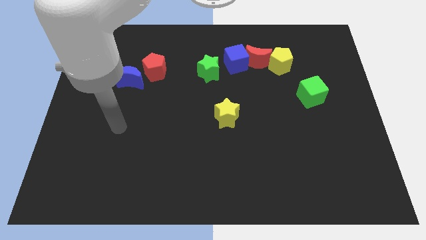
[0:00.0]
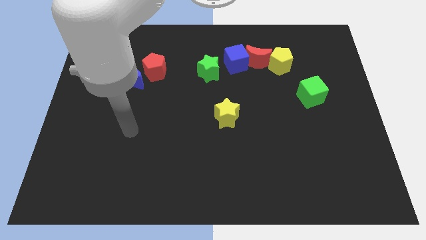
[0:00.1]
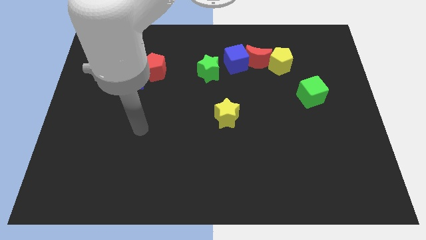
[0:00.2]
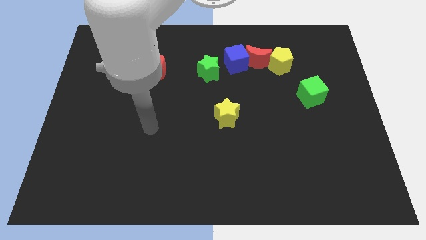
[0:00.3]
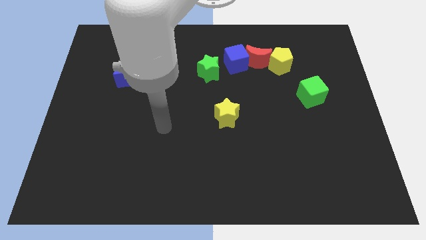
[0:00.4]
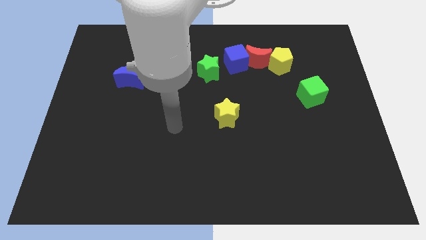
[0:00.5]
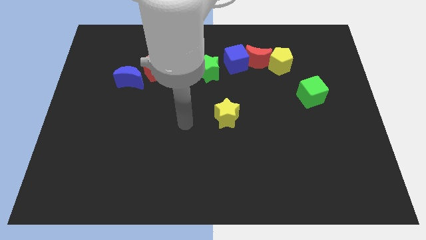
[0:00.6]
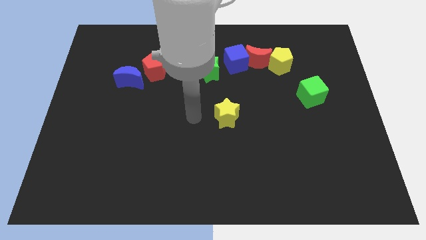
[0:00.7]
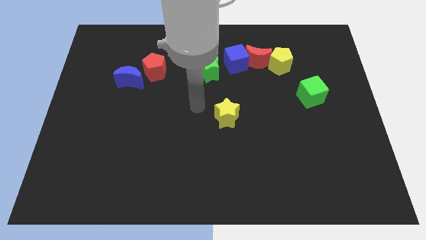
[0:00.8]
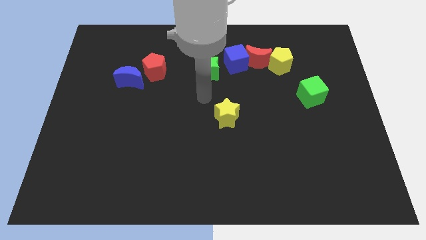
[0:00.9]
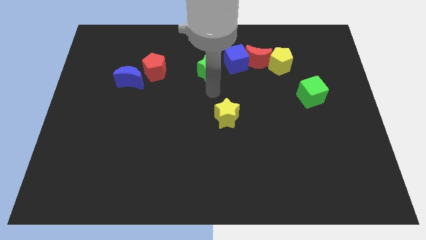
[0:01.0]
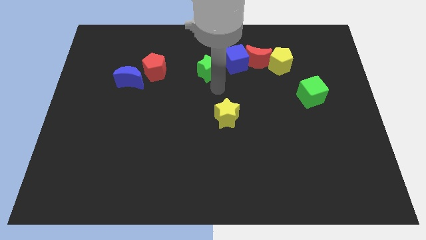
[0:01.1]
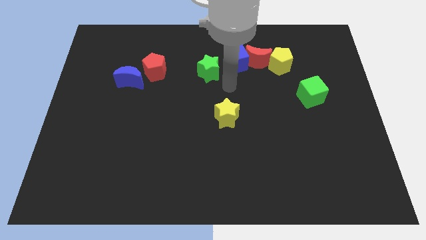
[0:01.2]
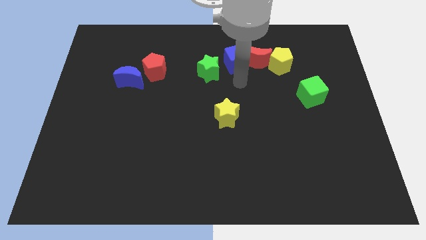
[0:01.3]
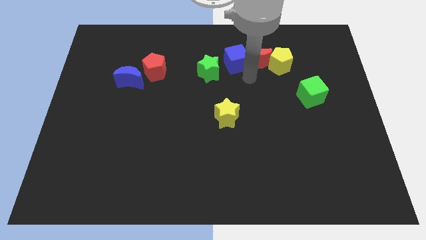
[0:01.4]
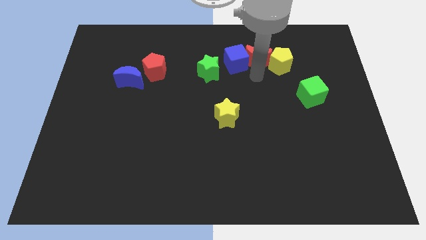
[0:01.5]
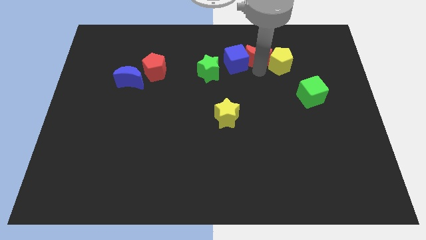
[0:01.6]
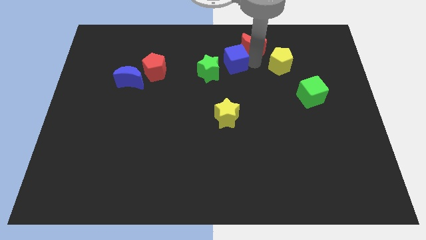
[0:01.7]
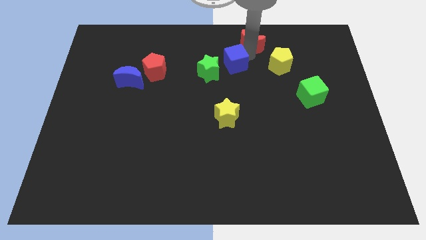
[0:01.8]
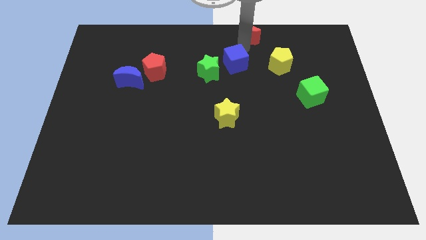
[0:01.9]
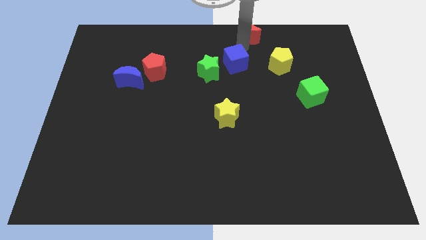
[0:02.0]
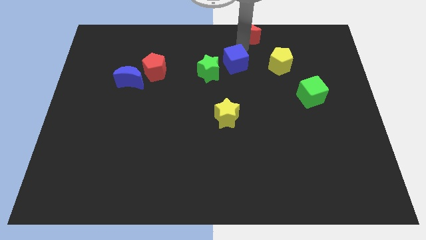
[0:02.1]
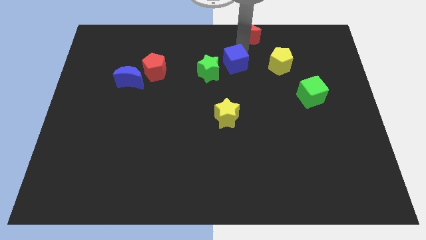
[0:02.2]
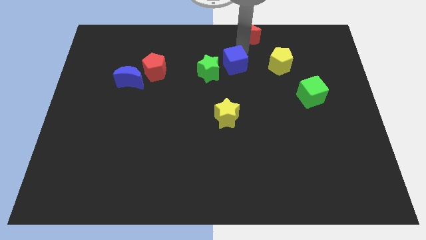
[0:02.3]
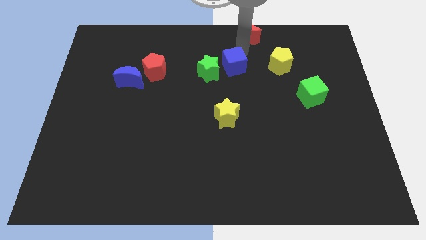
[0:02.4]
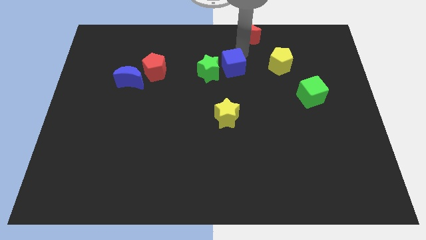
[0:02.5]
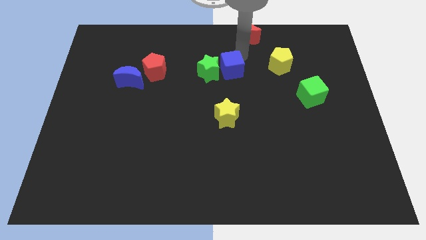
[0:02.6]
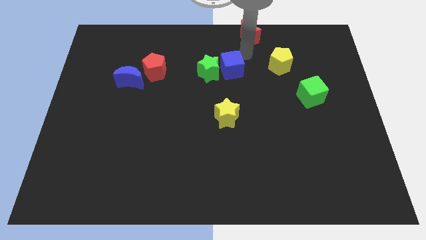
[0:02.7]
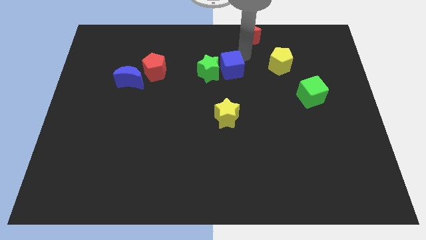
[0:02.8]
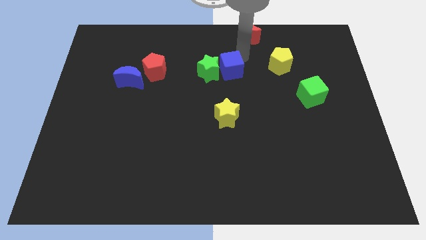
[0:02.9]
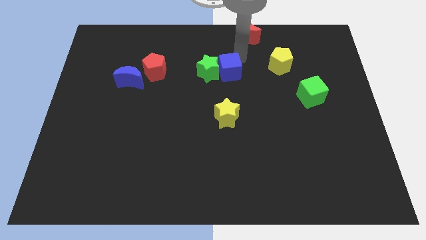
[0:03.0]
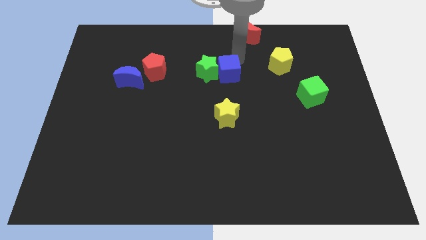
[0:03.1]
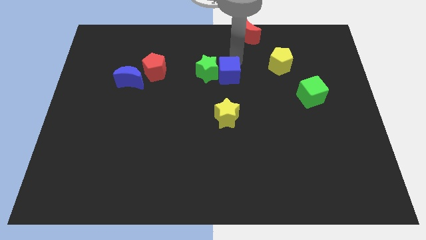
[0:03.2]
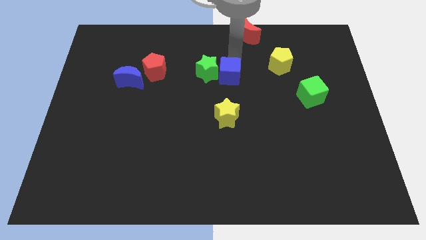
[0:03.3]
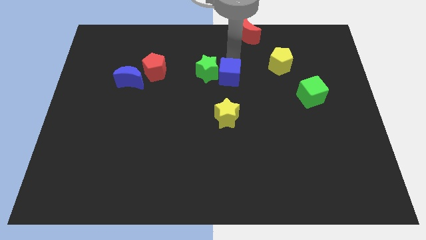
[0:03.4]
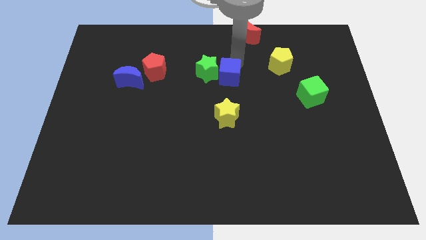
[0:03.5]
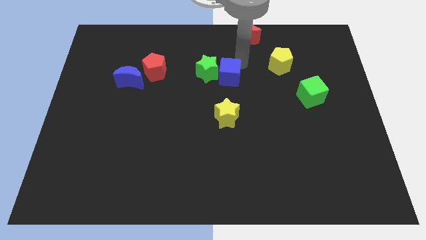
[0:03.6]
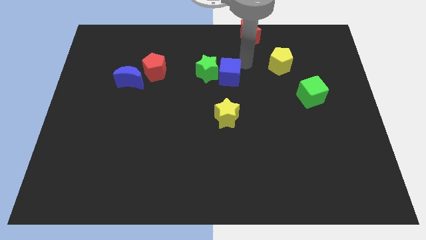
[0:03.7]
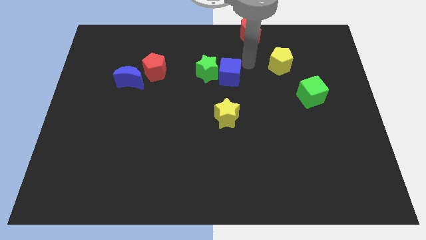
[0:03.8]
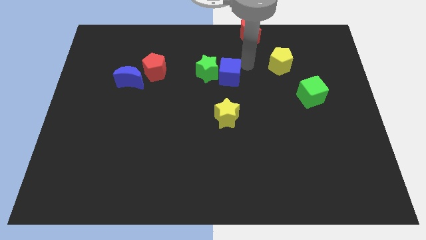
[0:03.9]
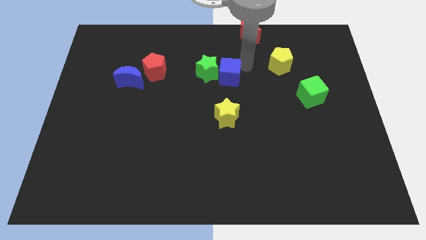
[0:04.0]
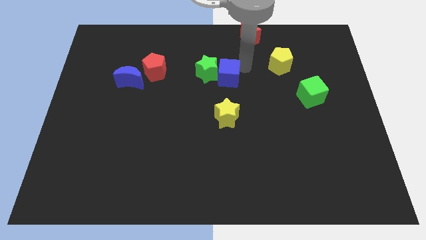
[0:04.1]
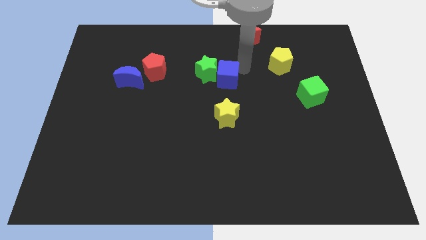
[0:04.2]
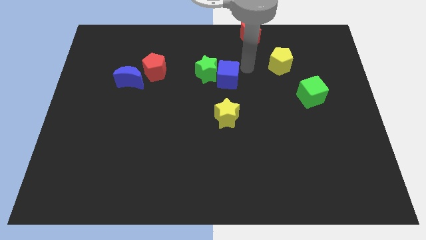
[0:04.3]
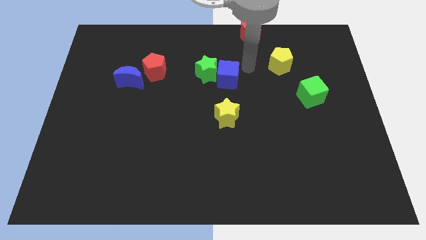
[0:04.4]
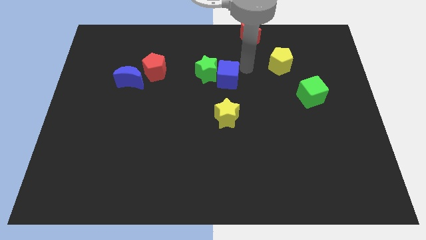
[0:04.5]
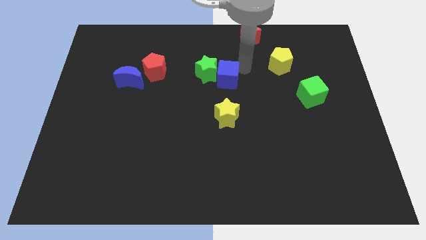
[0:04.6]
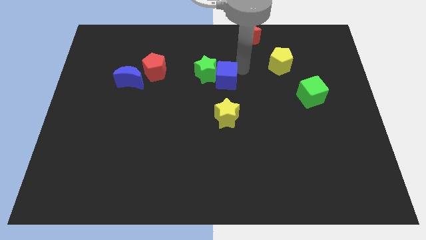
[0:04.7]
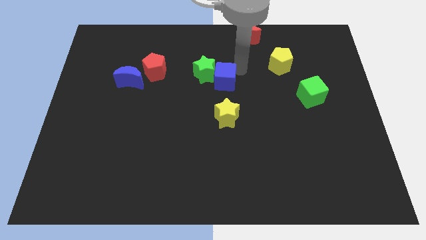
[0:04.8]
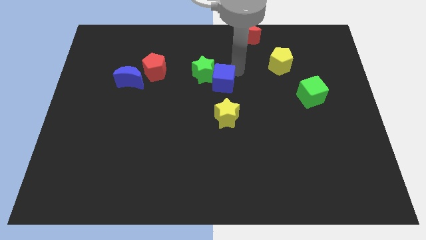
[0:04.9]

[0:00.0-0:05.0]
slightly push the blue cube downwards and then left

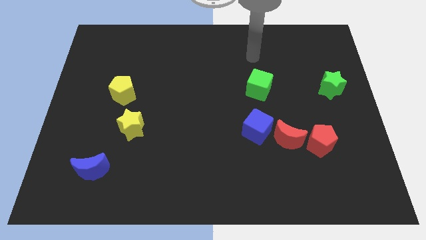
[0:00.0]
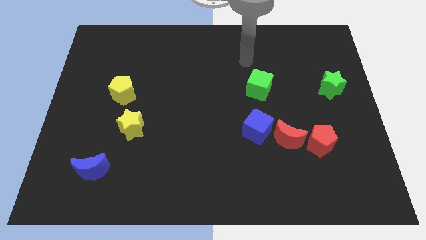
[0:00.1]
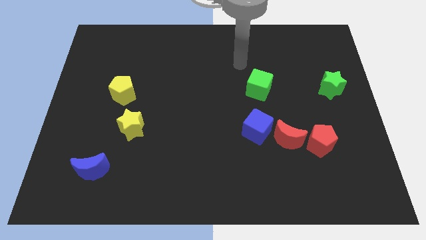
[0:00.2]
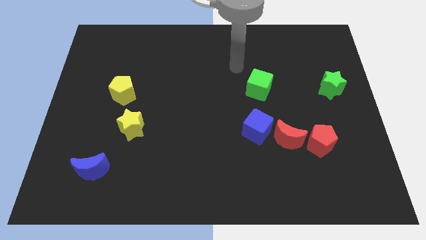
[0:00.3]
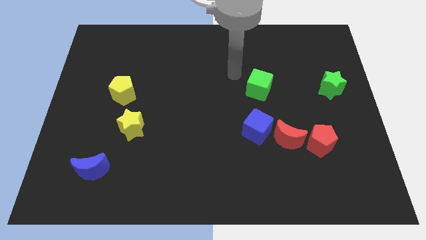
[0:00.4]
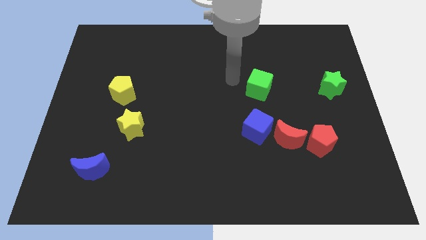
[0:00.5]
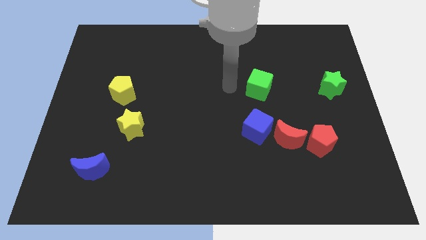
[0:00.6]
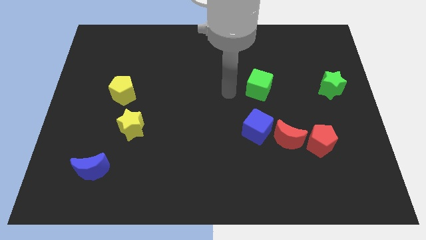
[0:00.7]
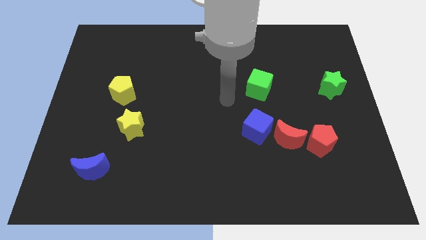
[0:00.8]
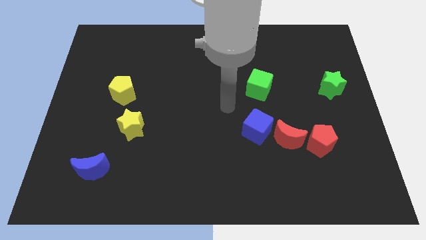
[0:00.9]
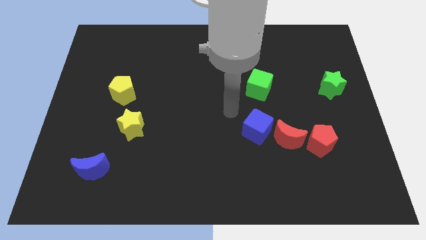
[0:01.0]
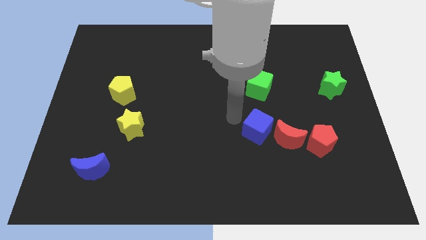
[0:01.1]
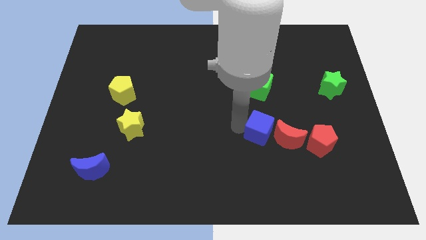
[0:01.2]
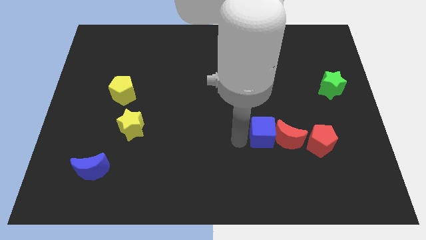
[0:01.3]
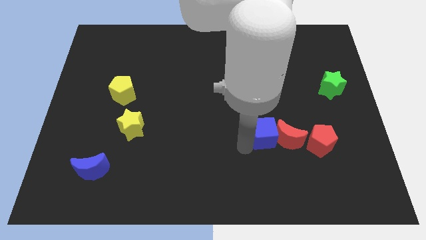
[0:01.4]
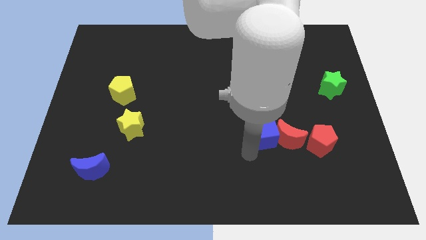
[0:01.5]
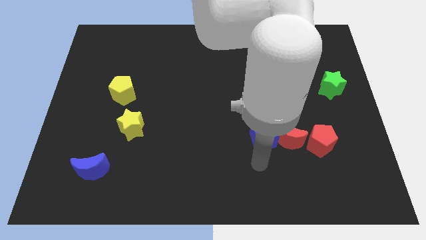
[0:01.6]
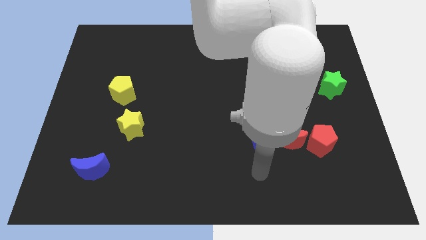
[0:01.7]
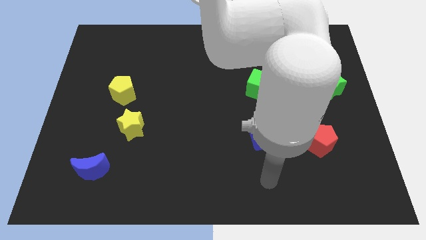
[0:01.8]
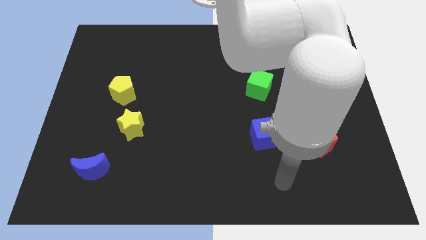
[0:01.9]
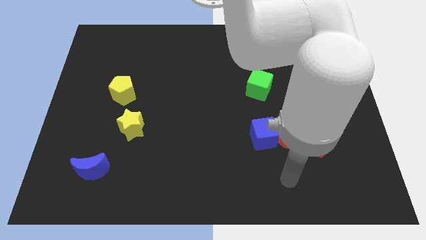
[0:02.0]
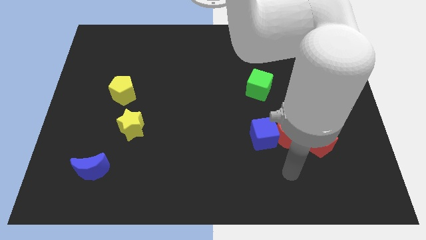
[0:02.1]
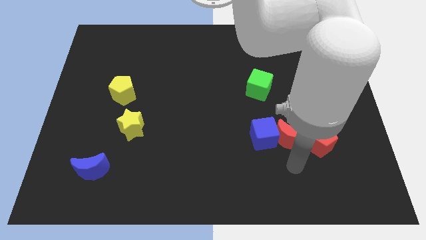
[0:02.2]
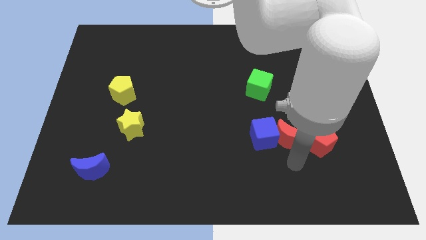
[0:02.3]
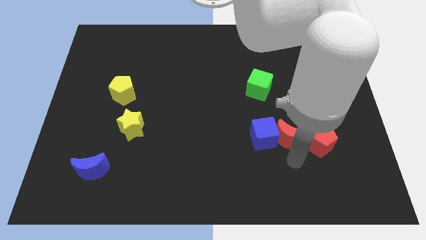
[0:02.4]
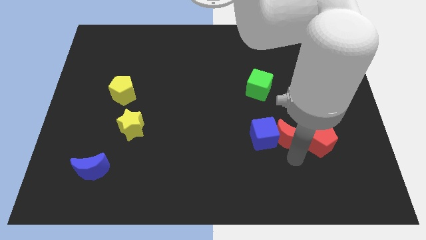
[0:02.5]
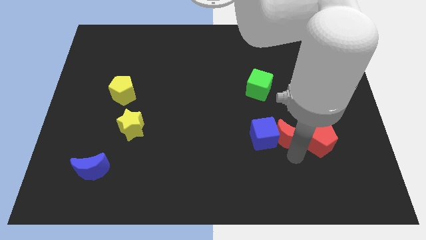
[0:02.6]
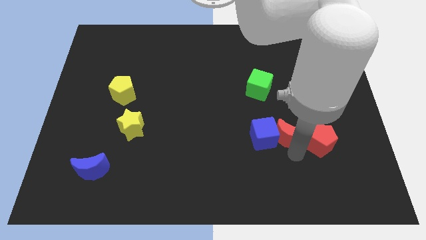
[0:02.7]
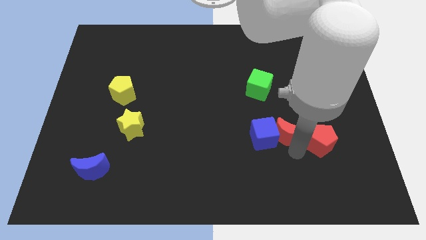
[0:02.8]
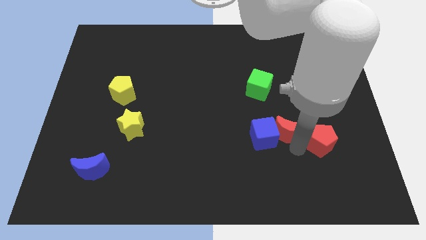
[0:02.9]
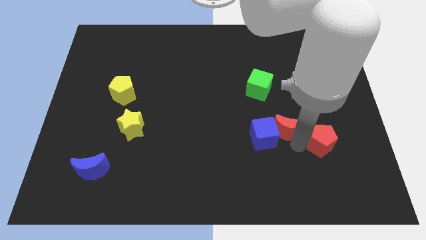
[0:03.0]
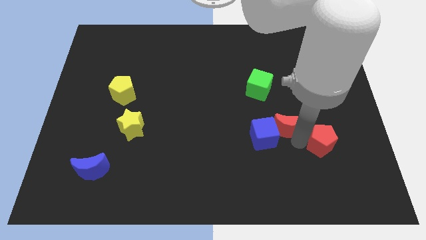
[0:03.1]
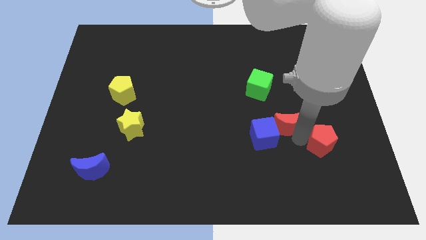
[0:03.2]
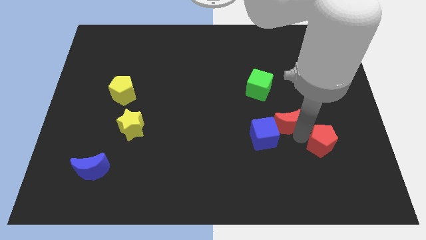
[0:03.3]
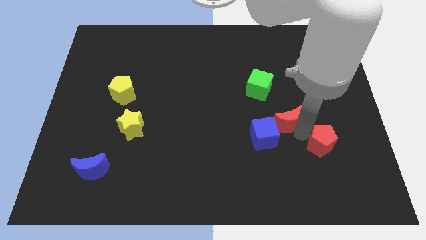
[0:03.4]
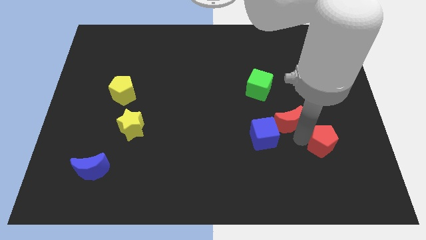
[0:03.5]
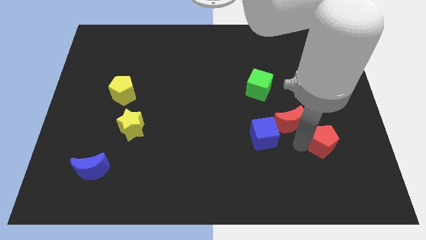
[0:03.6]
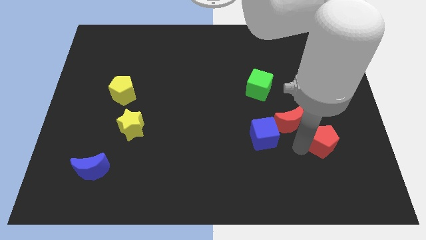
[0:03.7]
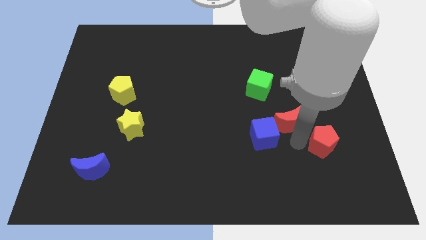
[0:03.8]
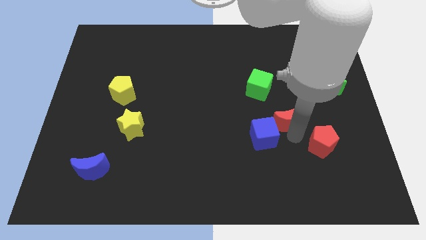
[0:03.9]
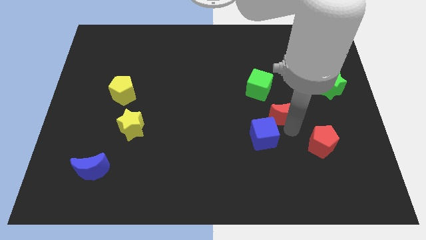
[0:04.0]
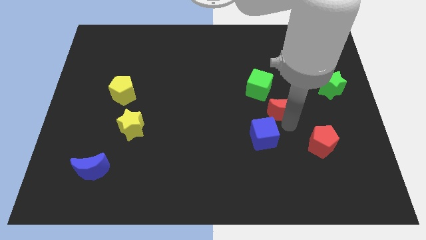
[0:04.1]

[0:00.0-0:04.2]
slightly move the red moon upwards
